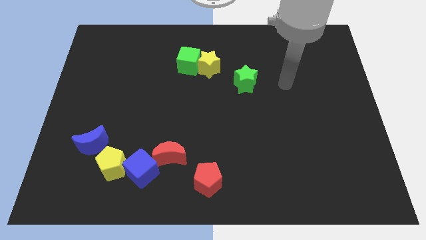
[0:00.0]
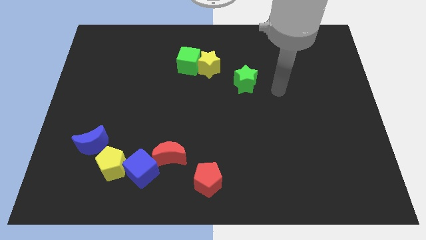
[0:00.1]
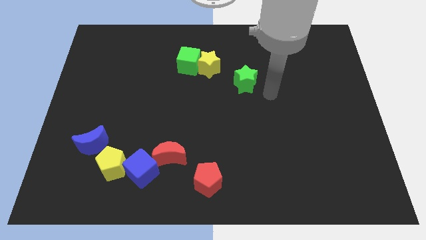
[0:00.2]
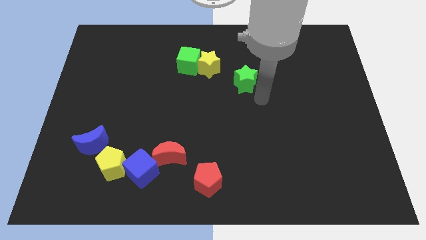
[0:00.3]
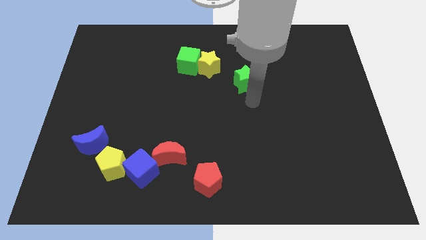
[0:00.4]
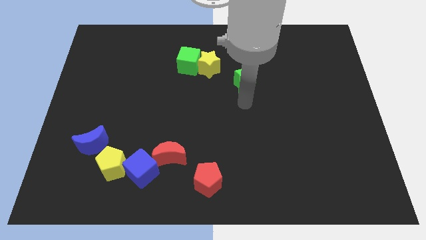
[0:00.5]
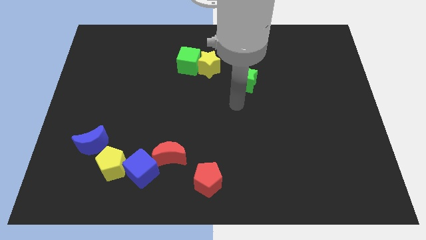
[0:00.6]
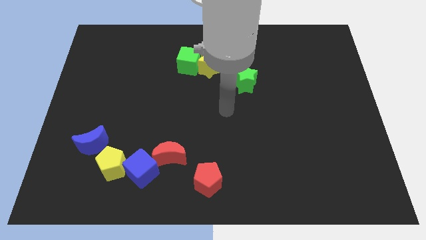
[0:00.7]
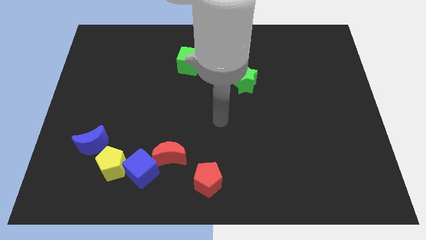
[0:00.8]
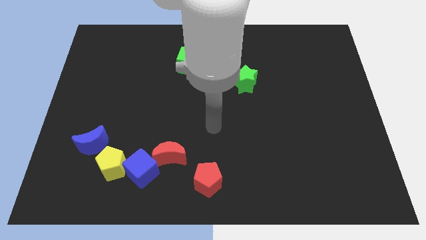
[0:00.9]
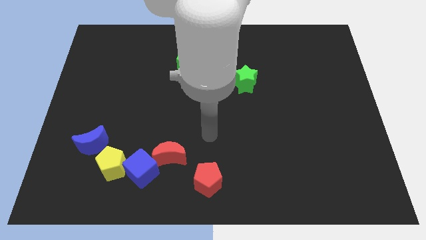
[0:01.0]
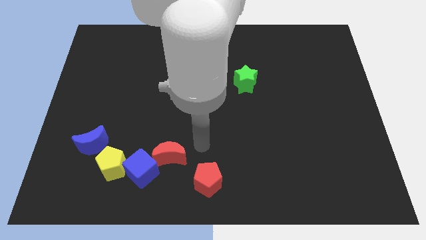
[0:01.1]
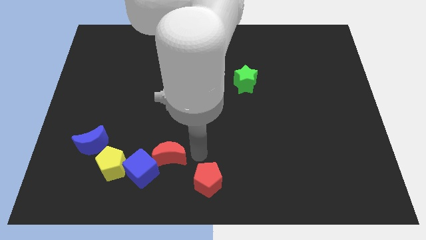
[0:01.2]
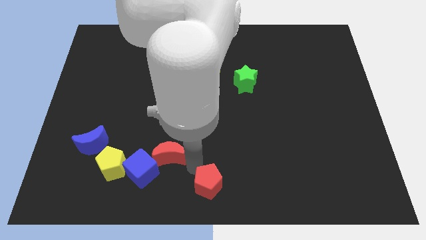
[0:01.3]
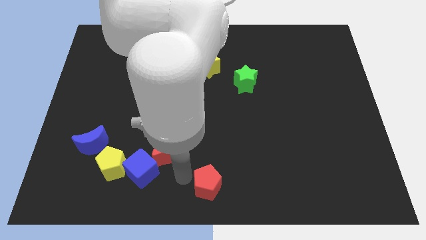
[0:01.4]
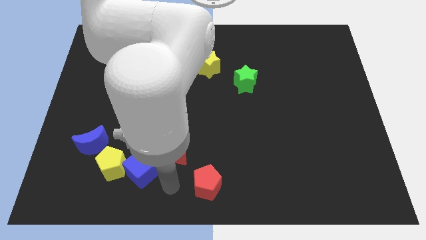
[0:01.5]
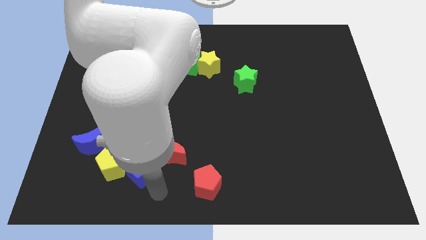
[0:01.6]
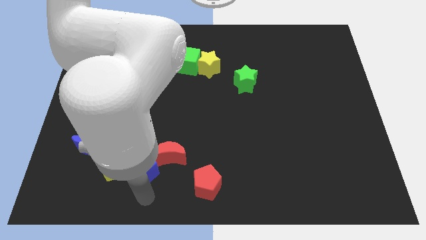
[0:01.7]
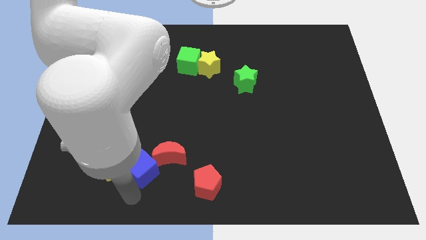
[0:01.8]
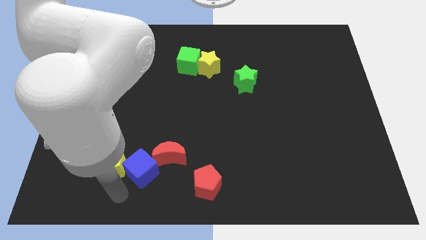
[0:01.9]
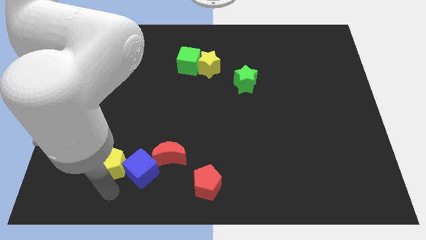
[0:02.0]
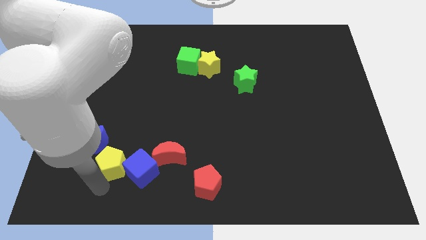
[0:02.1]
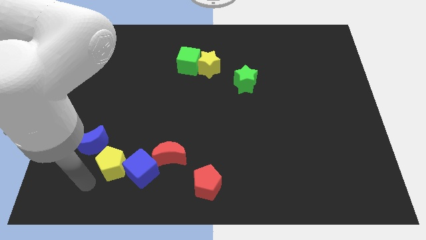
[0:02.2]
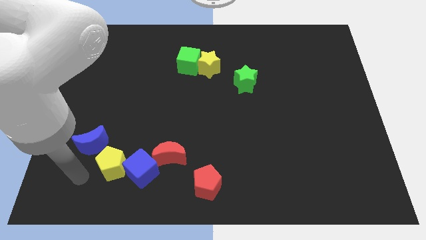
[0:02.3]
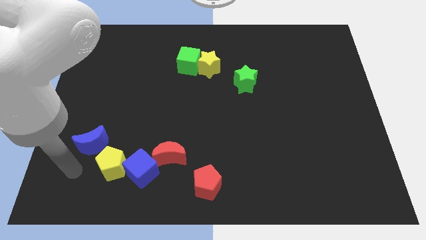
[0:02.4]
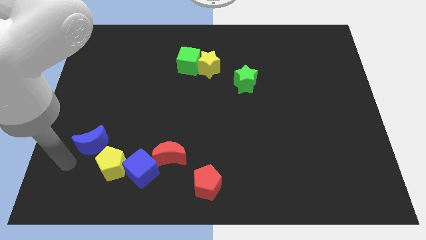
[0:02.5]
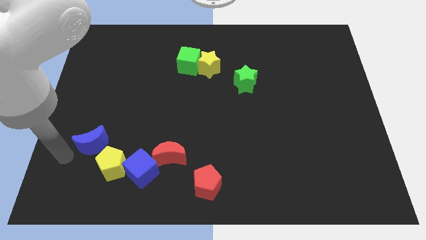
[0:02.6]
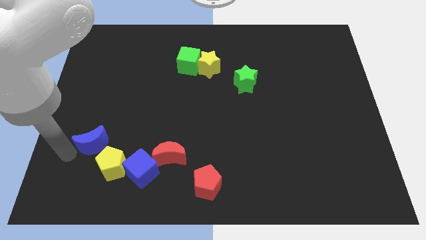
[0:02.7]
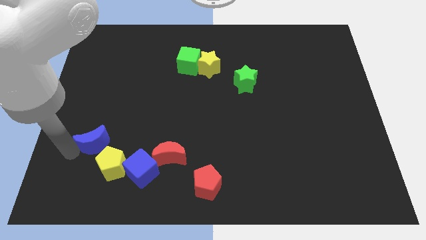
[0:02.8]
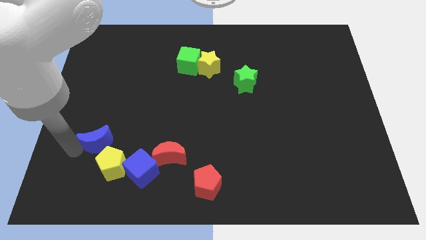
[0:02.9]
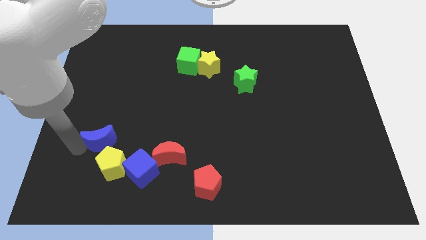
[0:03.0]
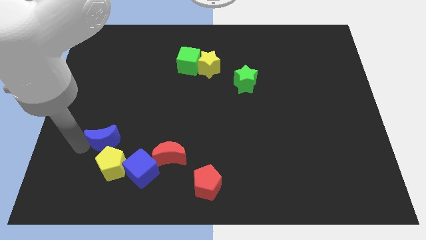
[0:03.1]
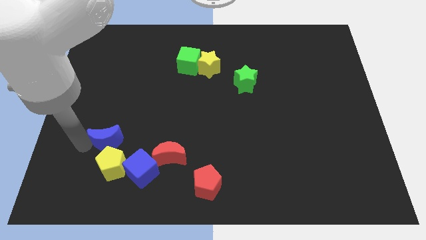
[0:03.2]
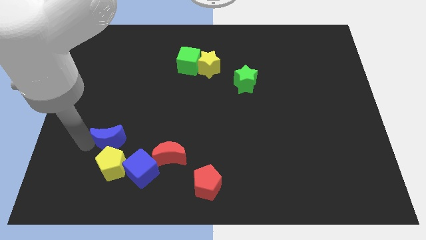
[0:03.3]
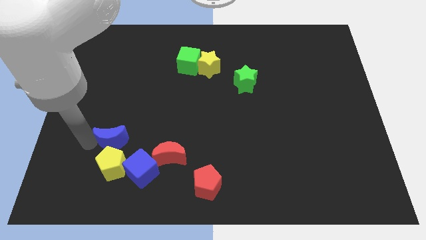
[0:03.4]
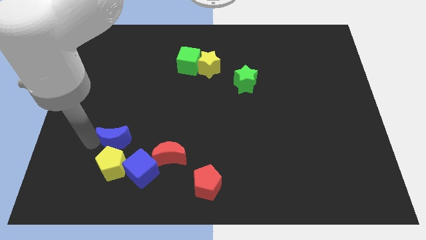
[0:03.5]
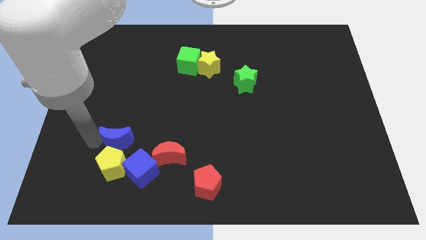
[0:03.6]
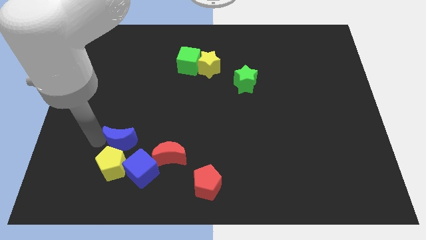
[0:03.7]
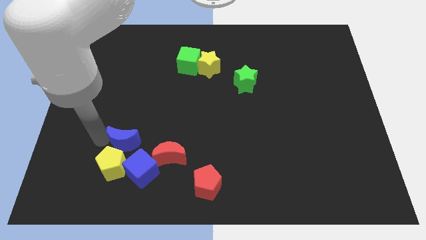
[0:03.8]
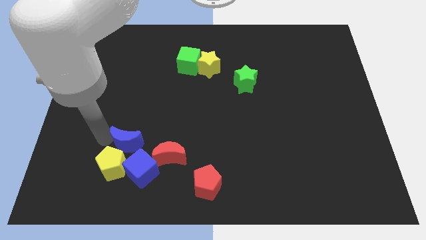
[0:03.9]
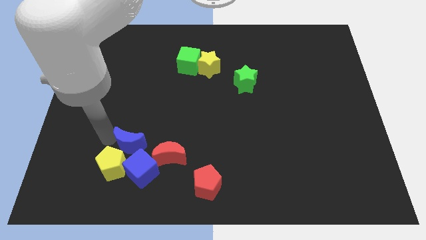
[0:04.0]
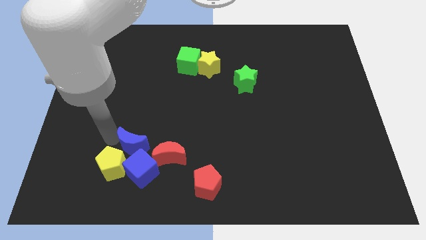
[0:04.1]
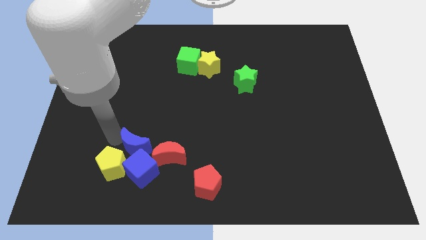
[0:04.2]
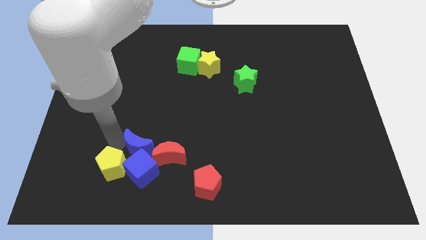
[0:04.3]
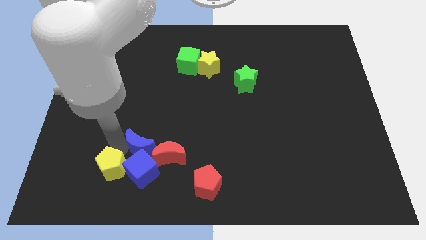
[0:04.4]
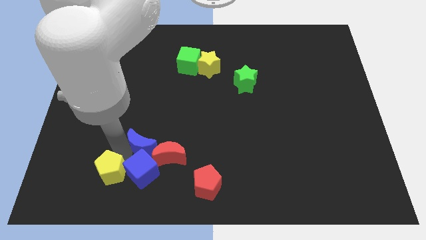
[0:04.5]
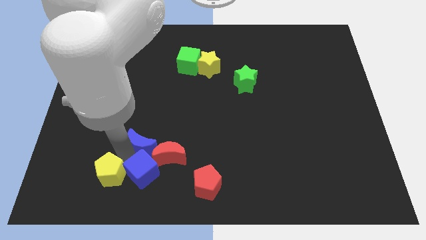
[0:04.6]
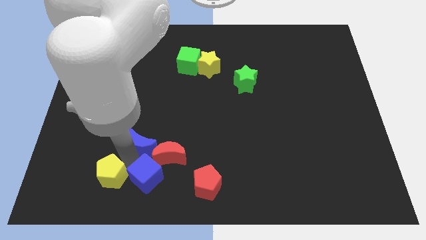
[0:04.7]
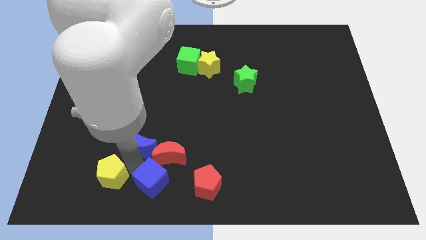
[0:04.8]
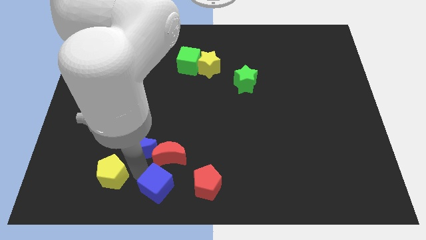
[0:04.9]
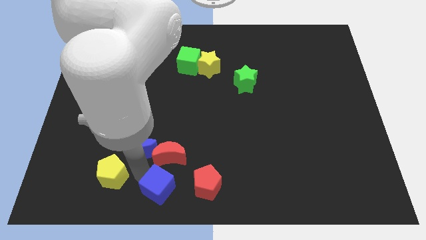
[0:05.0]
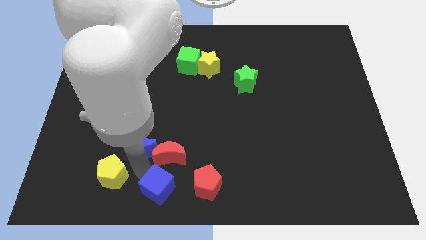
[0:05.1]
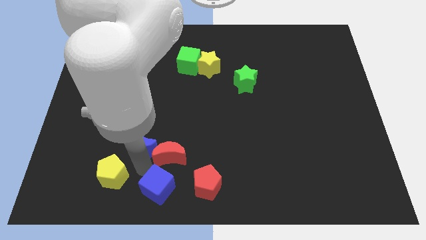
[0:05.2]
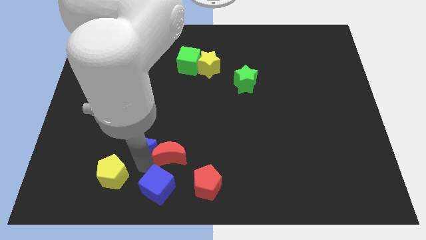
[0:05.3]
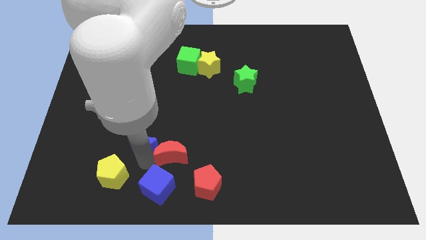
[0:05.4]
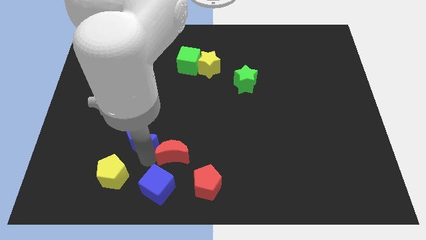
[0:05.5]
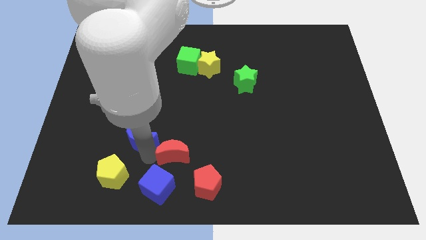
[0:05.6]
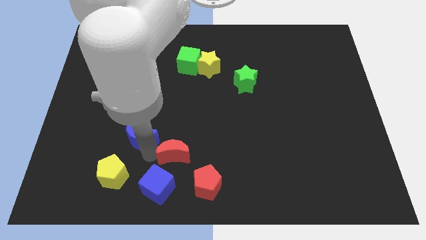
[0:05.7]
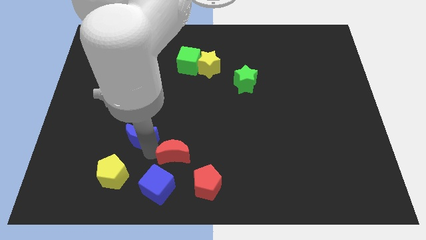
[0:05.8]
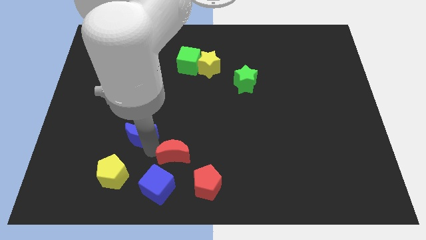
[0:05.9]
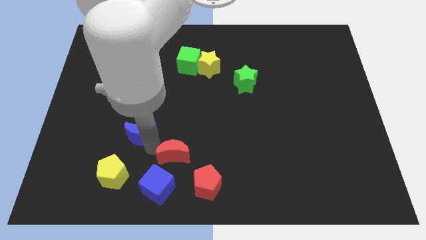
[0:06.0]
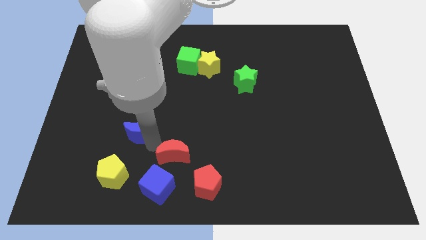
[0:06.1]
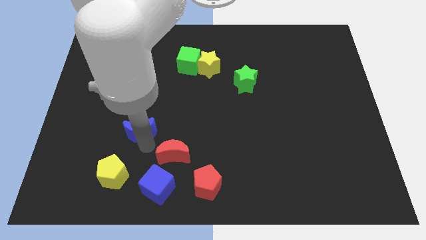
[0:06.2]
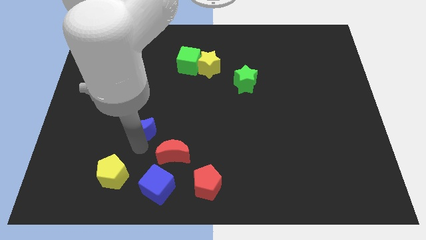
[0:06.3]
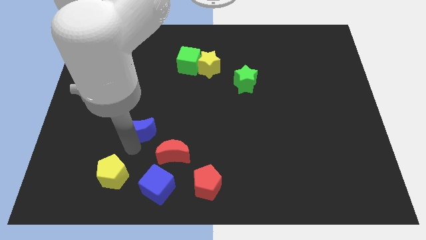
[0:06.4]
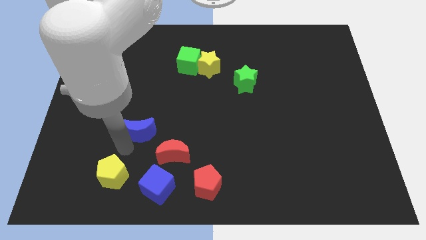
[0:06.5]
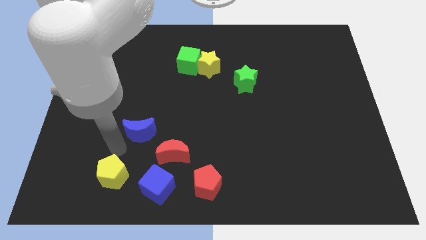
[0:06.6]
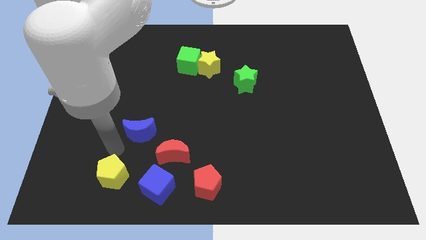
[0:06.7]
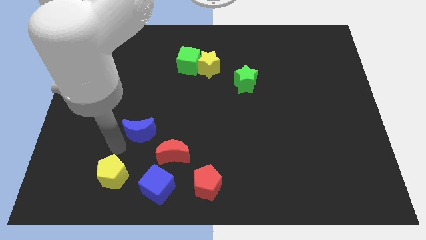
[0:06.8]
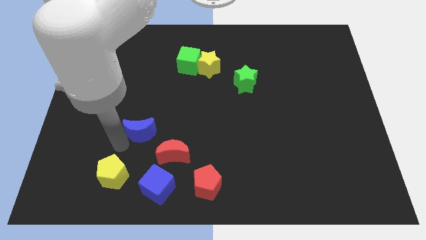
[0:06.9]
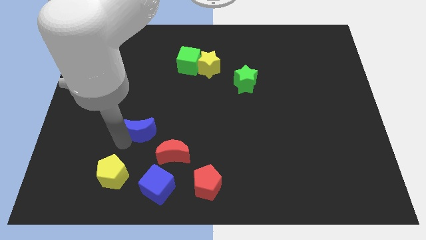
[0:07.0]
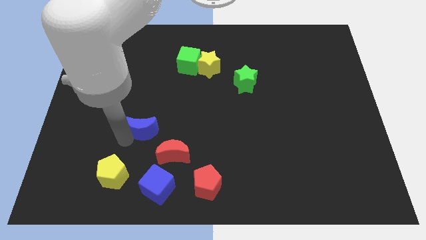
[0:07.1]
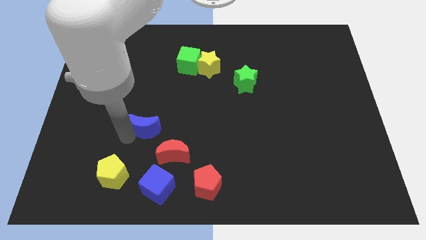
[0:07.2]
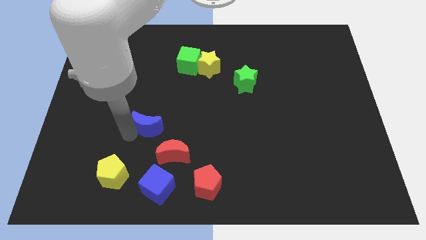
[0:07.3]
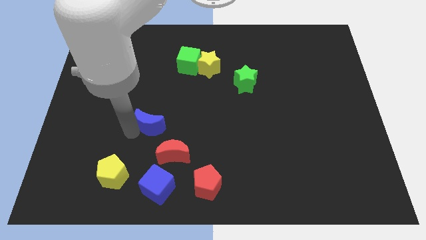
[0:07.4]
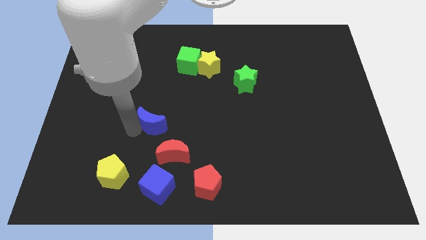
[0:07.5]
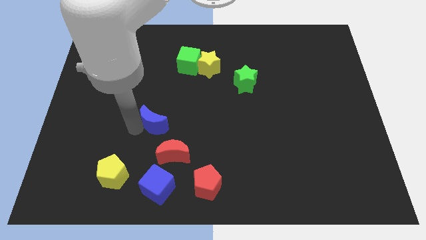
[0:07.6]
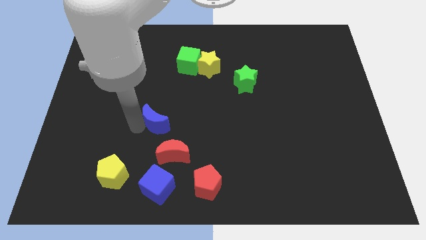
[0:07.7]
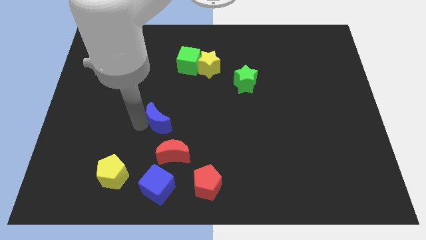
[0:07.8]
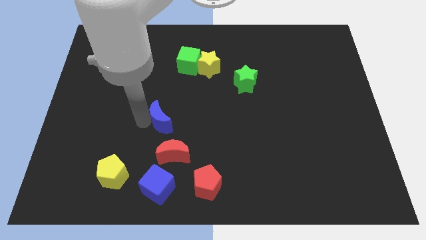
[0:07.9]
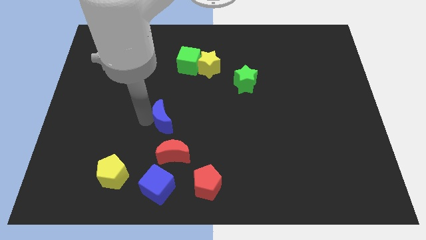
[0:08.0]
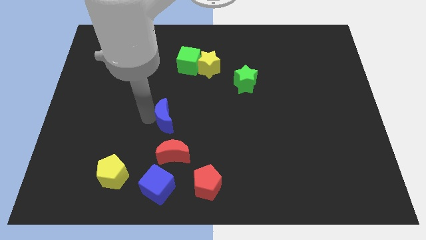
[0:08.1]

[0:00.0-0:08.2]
put the blue moon to the center
